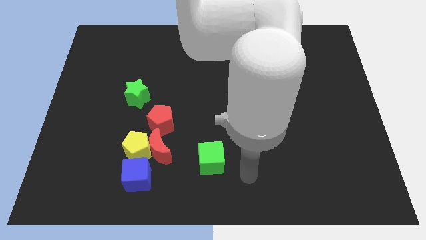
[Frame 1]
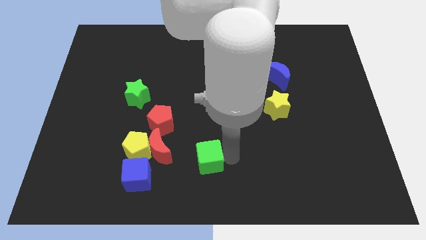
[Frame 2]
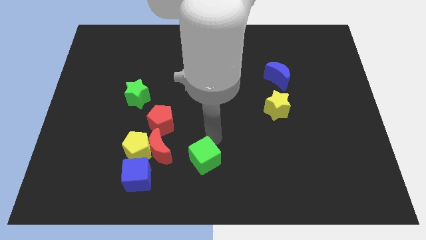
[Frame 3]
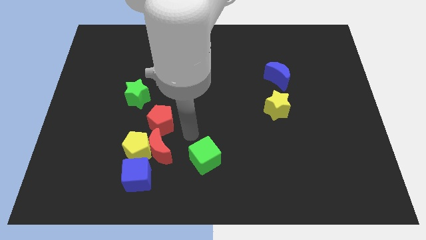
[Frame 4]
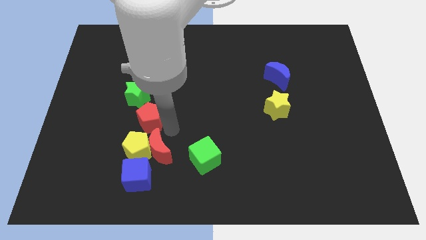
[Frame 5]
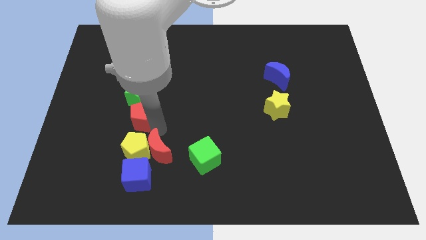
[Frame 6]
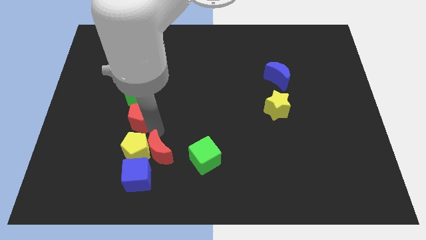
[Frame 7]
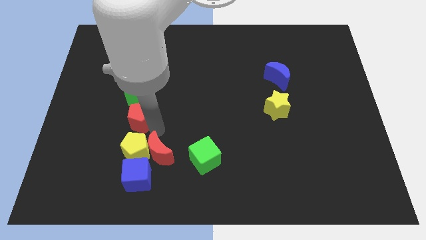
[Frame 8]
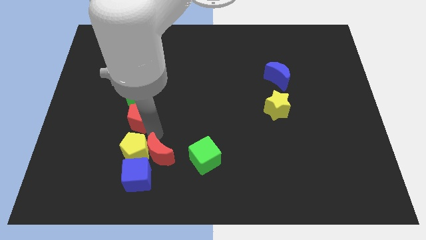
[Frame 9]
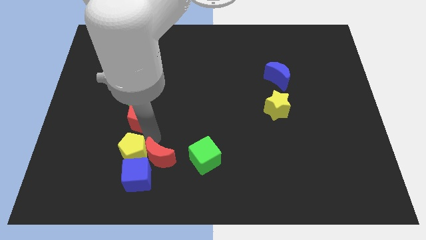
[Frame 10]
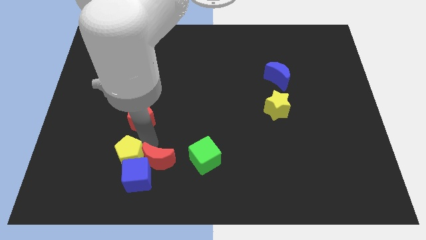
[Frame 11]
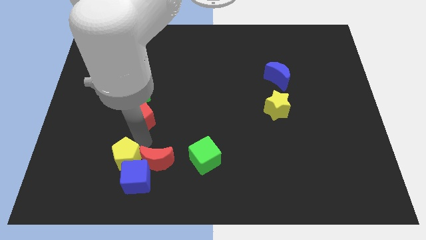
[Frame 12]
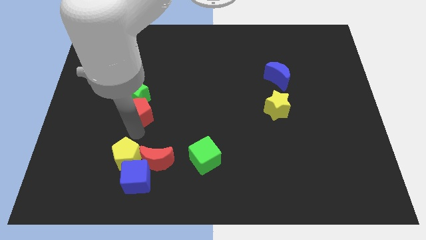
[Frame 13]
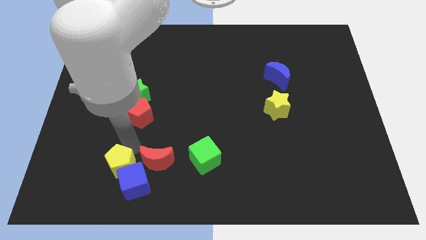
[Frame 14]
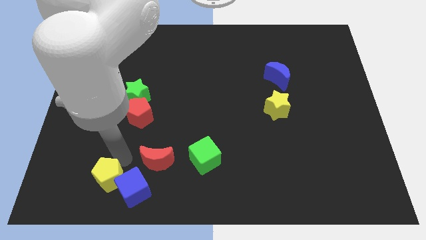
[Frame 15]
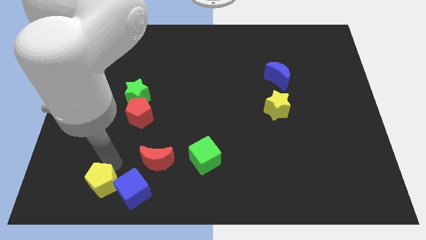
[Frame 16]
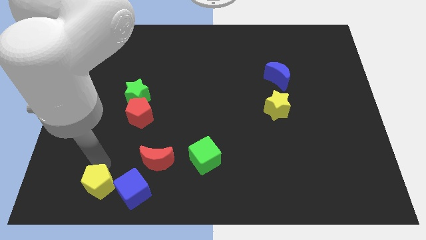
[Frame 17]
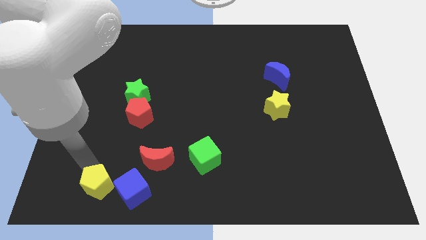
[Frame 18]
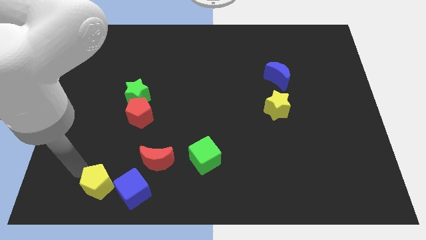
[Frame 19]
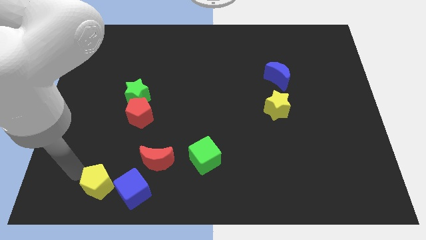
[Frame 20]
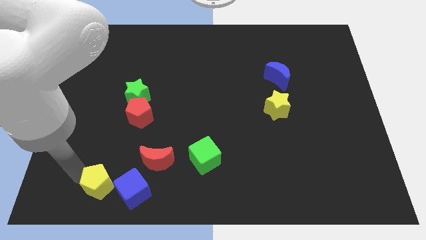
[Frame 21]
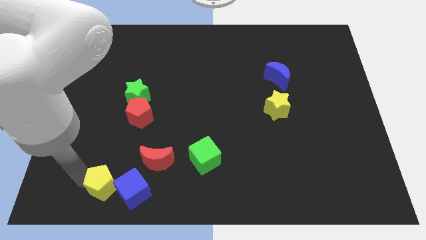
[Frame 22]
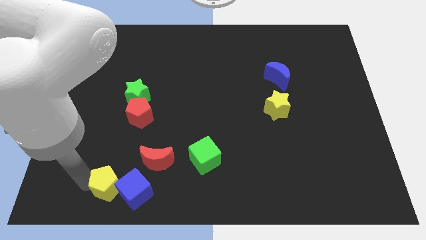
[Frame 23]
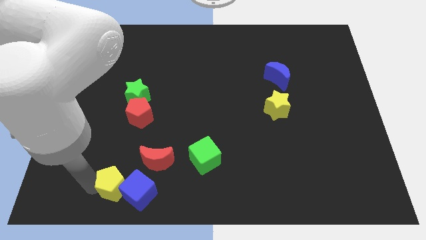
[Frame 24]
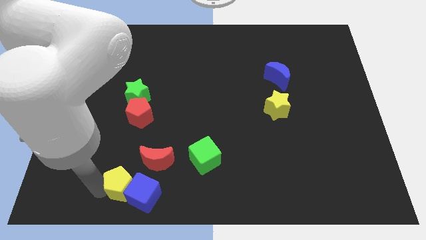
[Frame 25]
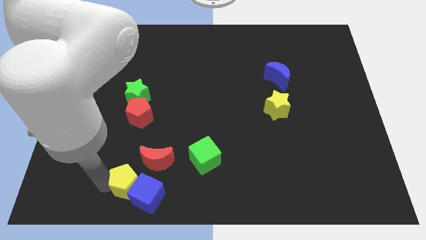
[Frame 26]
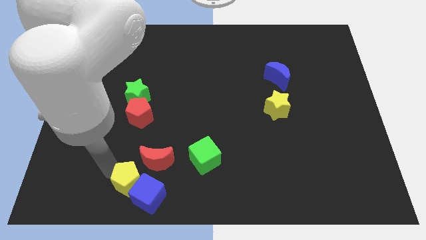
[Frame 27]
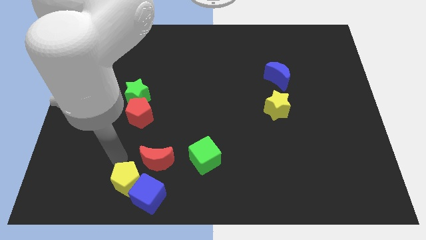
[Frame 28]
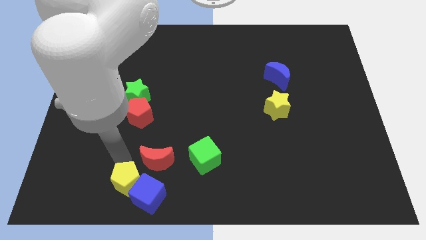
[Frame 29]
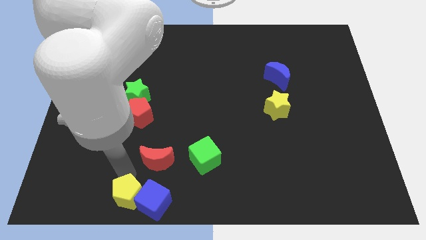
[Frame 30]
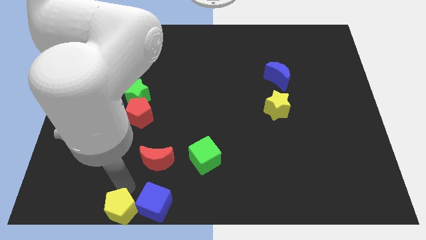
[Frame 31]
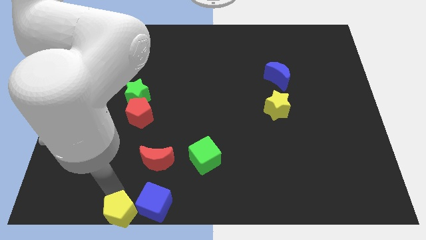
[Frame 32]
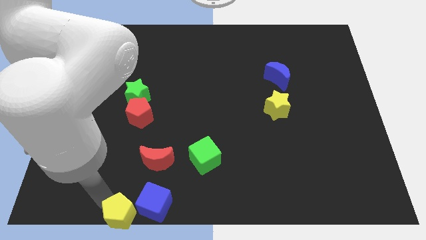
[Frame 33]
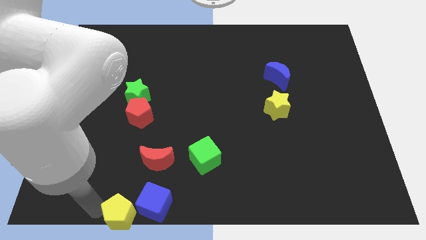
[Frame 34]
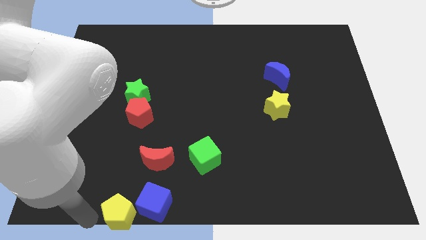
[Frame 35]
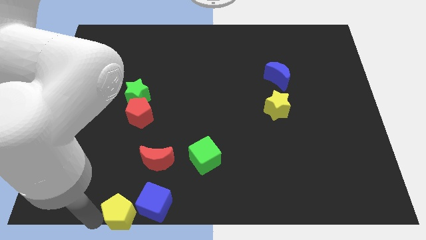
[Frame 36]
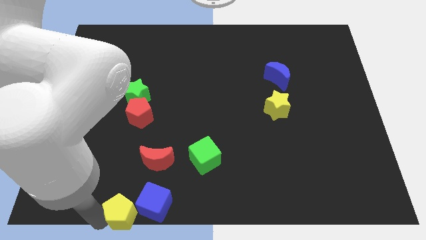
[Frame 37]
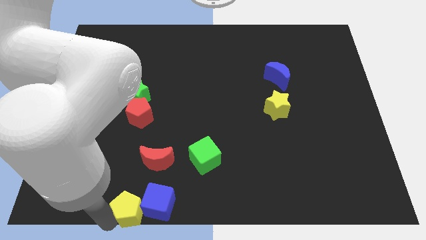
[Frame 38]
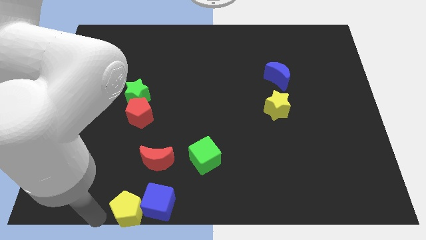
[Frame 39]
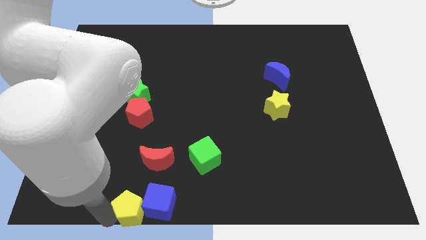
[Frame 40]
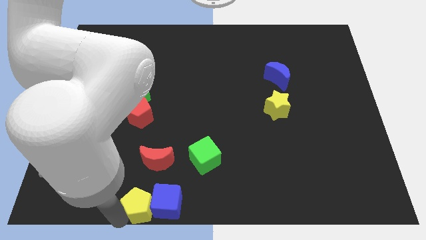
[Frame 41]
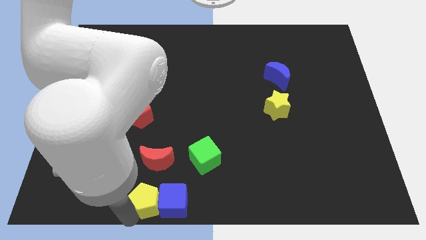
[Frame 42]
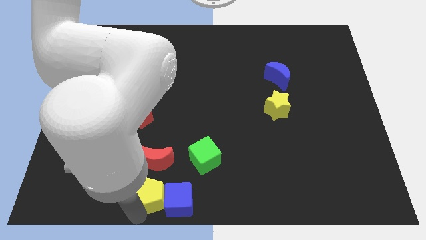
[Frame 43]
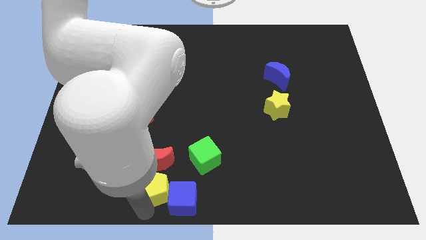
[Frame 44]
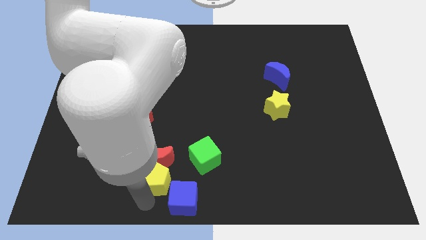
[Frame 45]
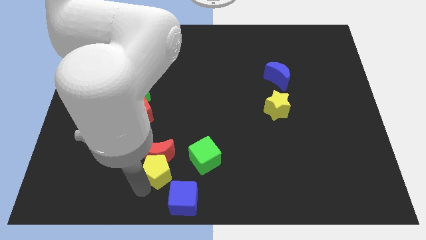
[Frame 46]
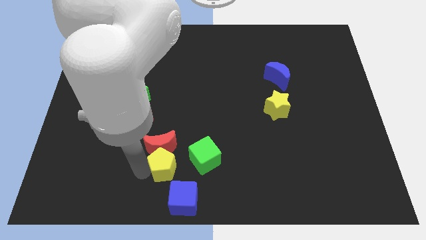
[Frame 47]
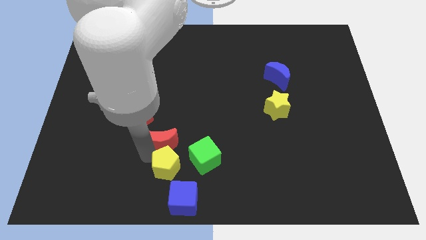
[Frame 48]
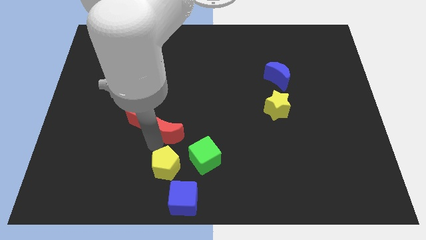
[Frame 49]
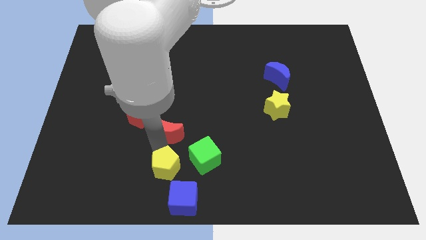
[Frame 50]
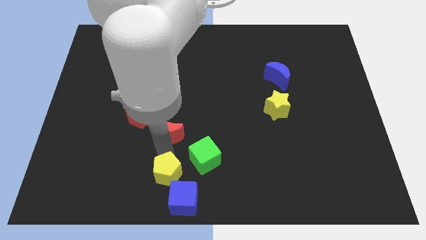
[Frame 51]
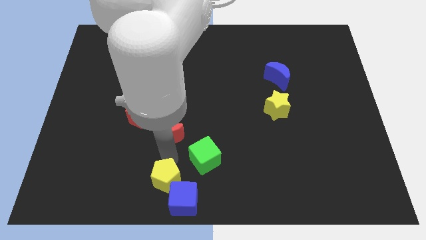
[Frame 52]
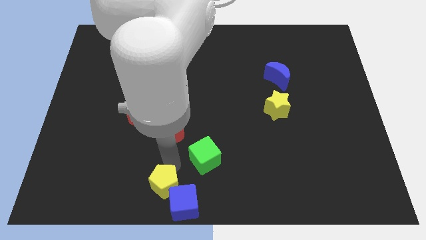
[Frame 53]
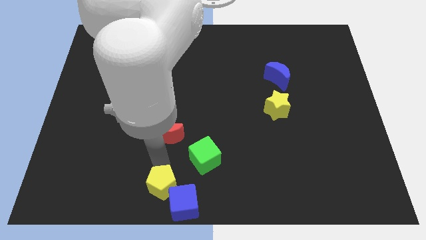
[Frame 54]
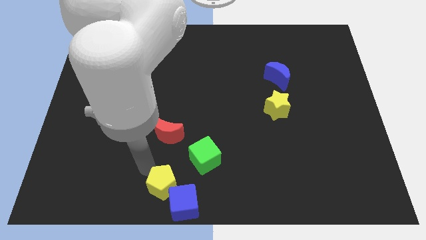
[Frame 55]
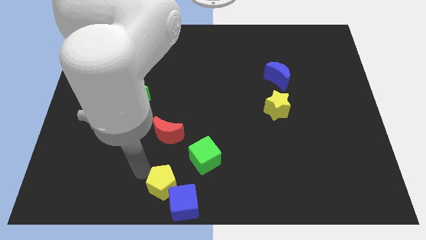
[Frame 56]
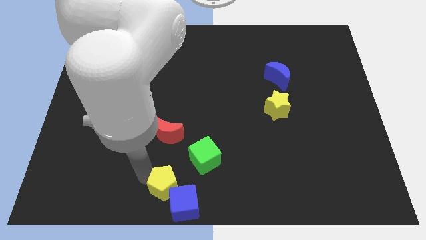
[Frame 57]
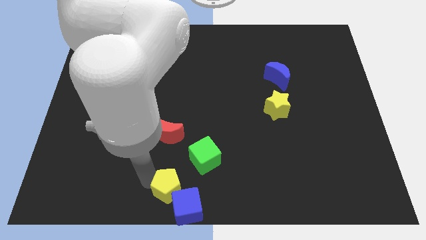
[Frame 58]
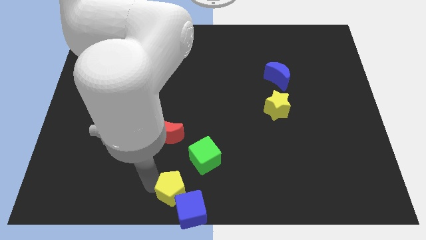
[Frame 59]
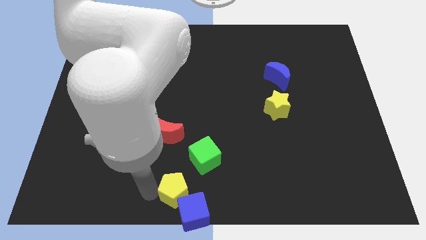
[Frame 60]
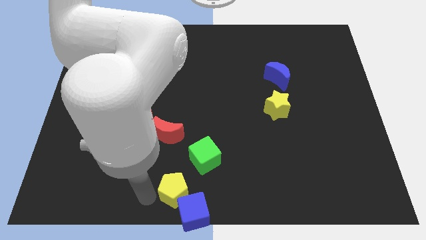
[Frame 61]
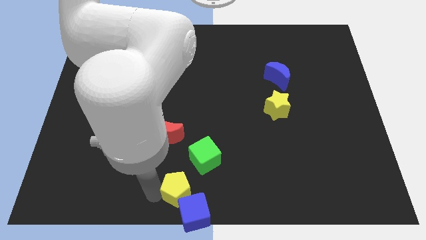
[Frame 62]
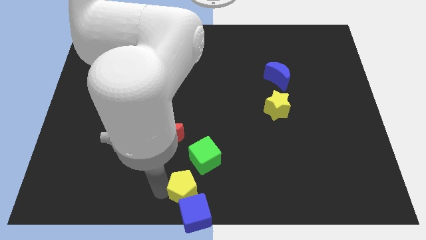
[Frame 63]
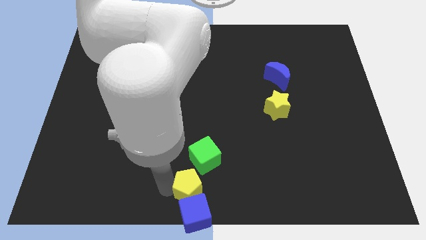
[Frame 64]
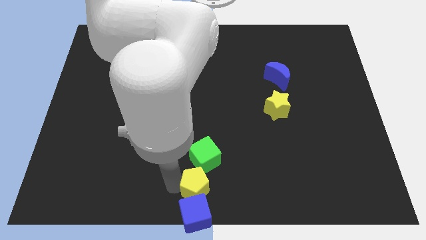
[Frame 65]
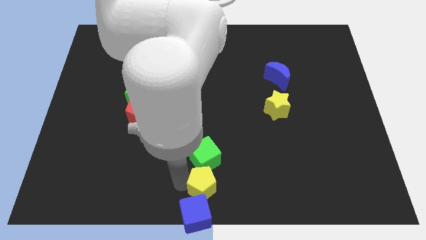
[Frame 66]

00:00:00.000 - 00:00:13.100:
slide the yellow pentagon to the bottom right of the green cube

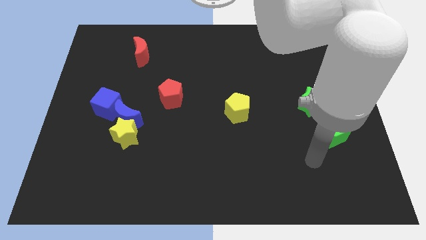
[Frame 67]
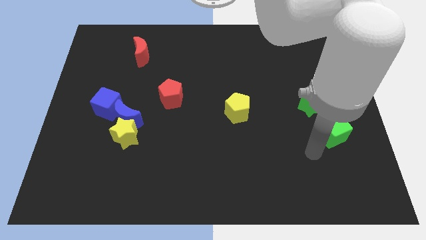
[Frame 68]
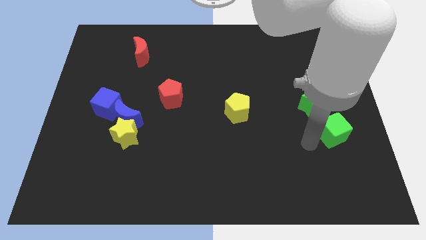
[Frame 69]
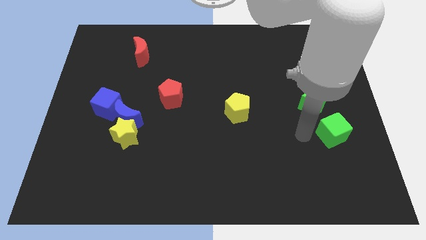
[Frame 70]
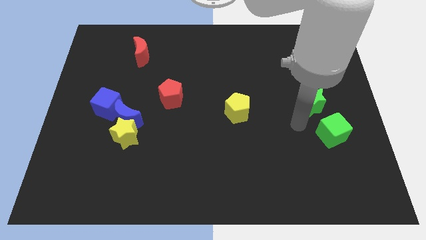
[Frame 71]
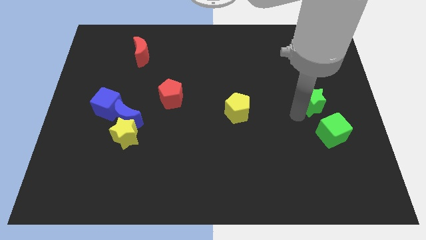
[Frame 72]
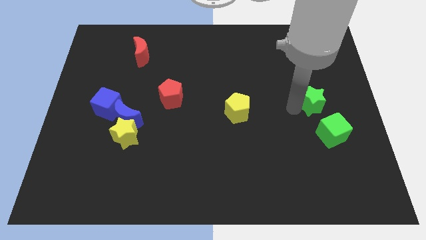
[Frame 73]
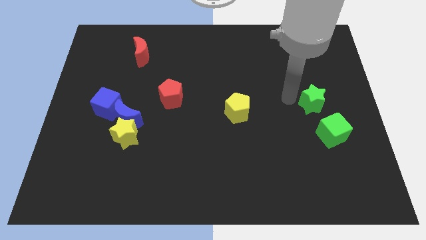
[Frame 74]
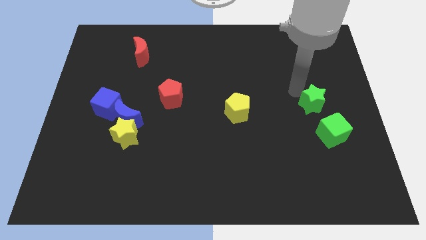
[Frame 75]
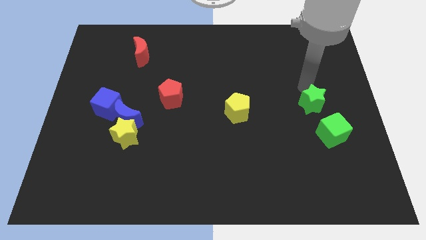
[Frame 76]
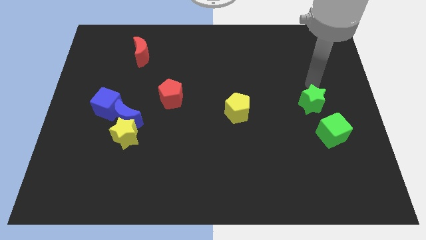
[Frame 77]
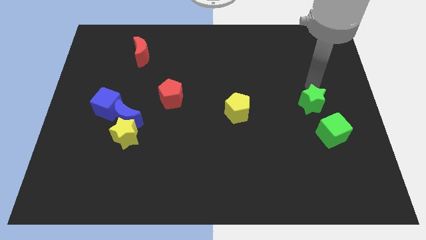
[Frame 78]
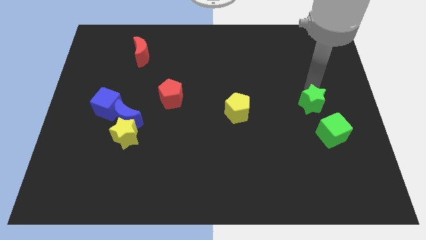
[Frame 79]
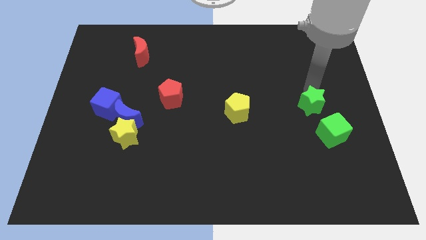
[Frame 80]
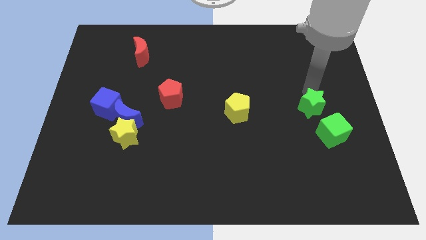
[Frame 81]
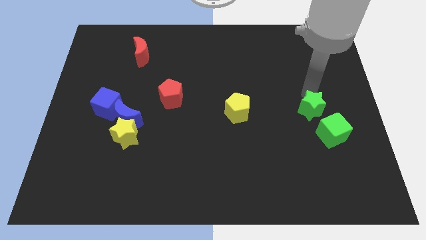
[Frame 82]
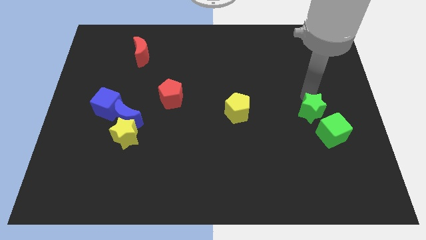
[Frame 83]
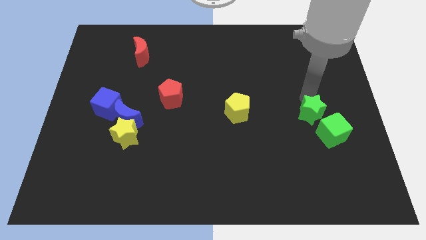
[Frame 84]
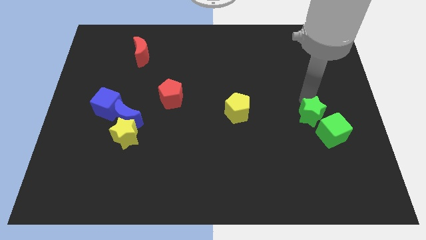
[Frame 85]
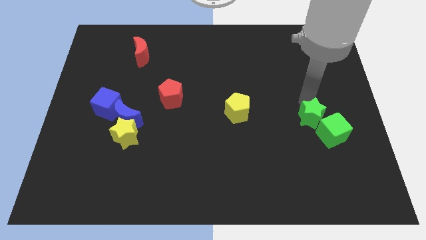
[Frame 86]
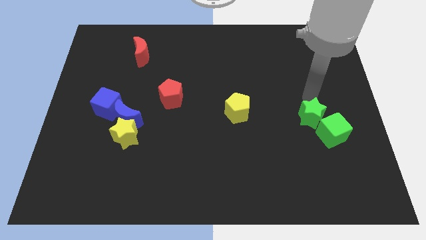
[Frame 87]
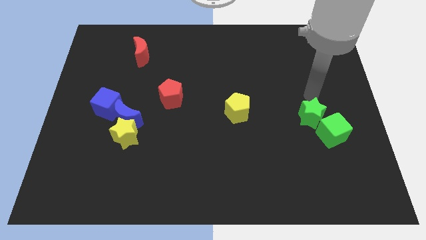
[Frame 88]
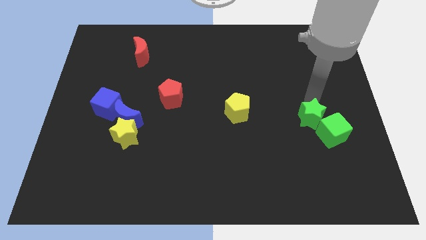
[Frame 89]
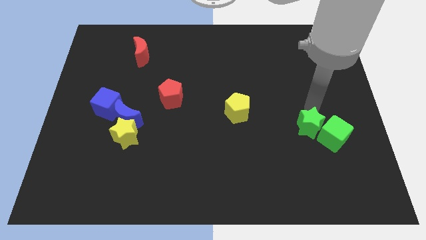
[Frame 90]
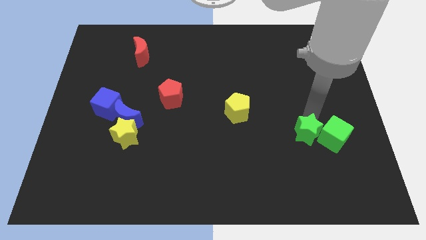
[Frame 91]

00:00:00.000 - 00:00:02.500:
push the green star diagonally down and to the left of the green cube
